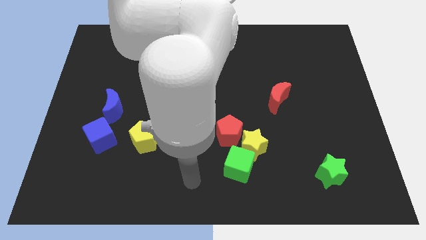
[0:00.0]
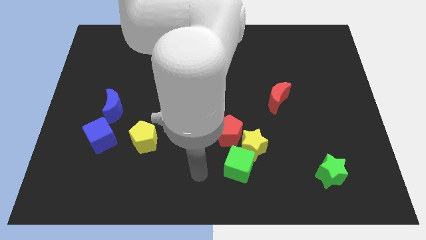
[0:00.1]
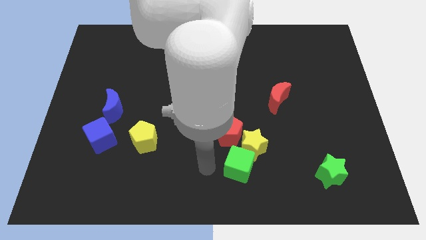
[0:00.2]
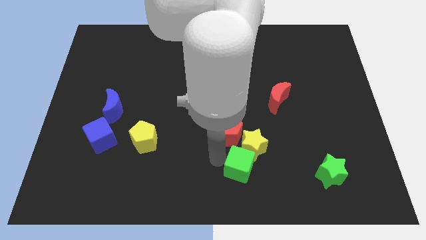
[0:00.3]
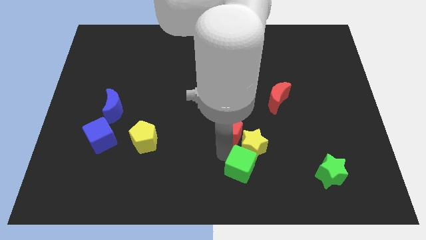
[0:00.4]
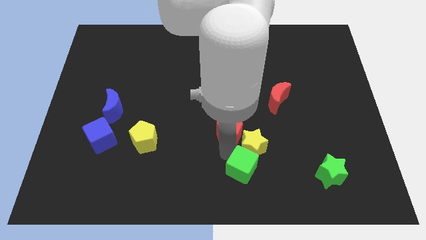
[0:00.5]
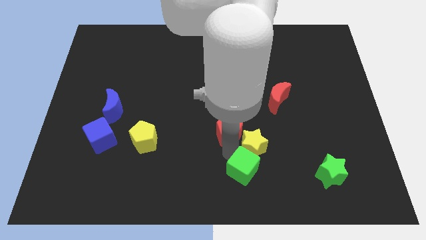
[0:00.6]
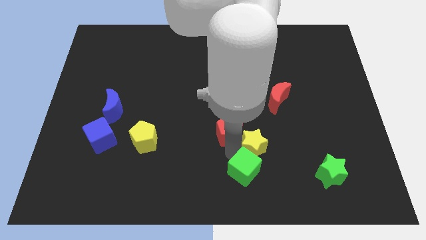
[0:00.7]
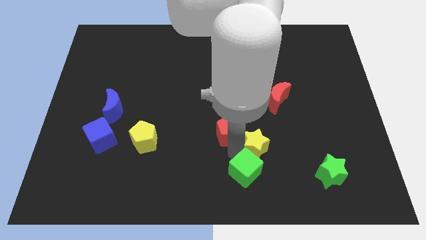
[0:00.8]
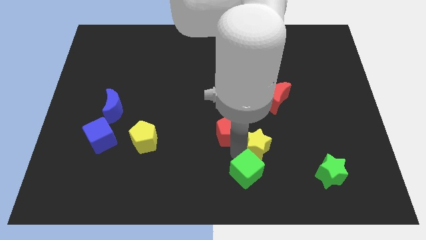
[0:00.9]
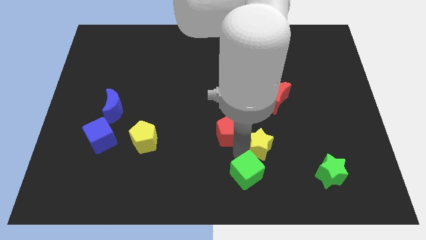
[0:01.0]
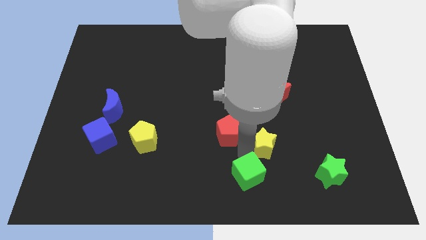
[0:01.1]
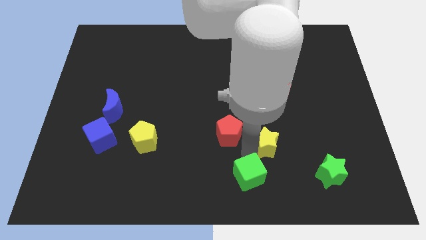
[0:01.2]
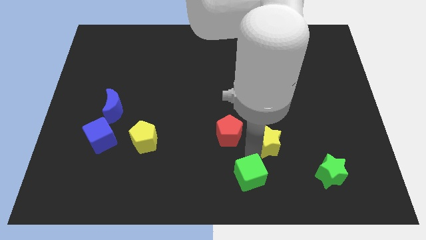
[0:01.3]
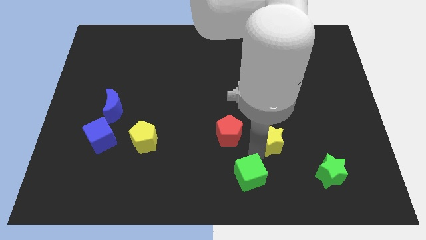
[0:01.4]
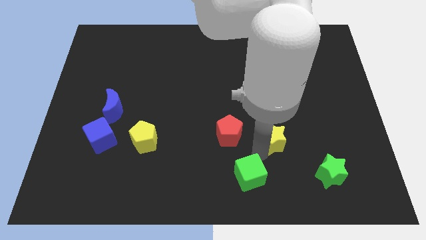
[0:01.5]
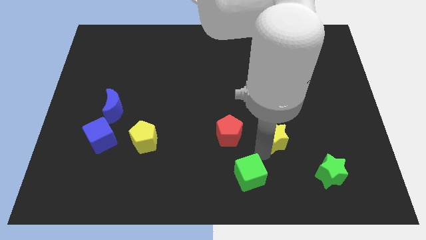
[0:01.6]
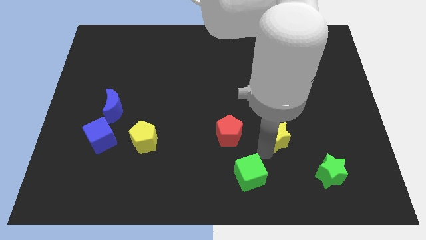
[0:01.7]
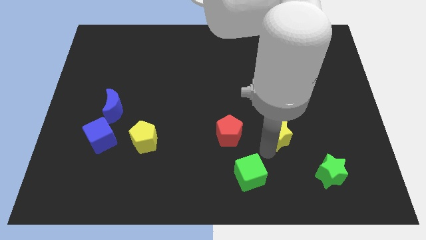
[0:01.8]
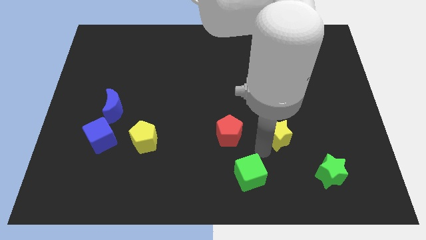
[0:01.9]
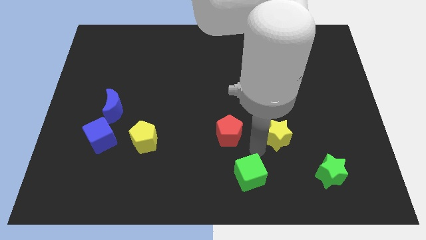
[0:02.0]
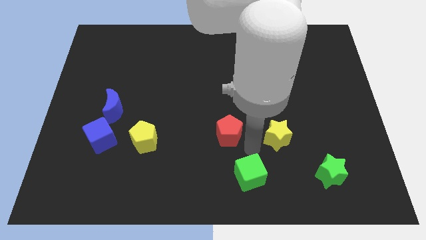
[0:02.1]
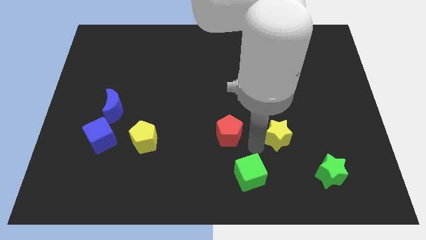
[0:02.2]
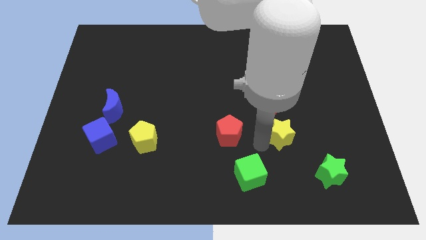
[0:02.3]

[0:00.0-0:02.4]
separate the yellow star from the green cube and red pentagon

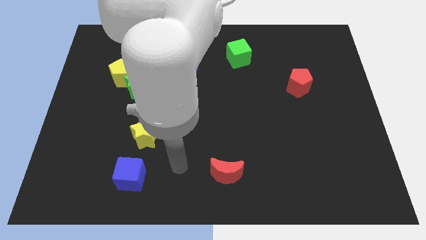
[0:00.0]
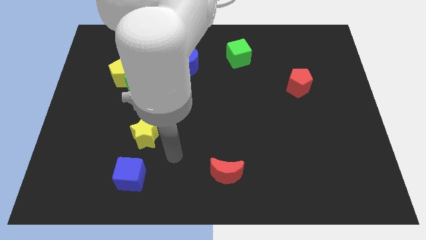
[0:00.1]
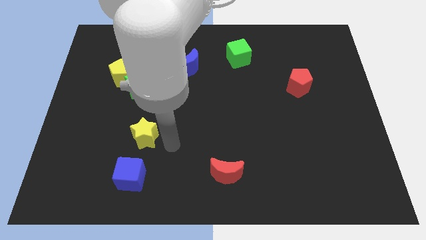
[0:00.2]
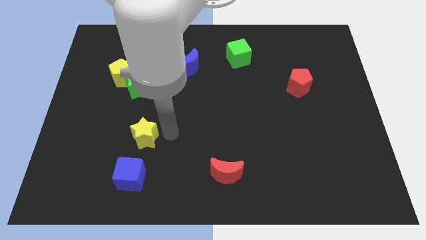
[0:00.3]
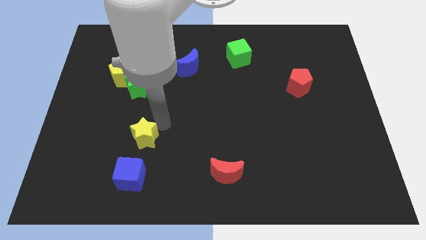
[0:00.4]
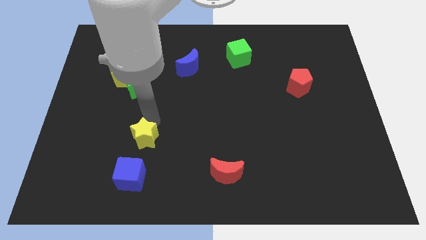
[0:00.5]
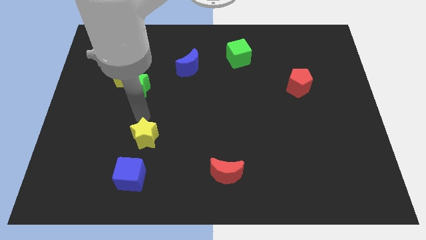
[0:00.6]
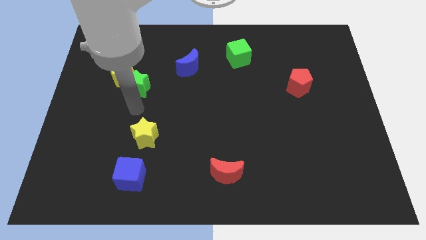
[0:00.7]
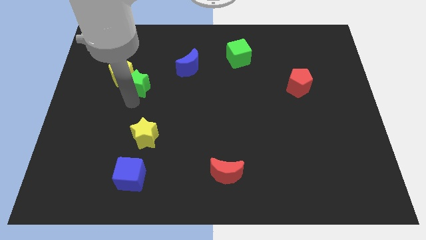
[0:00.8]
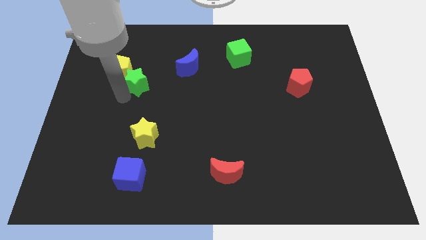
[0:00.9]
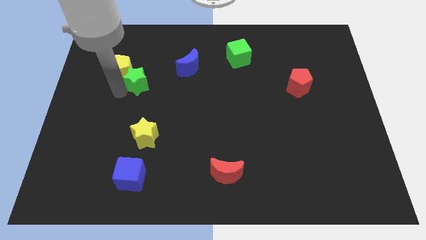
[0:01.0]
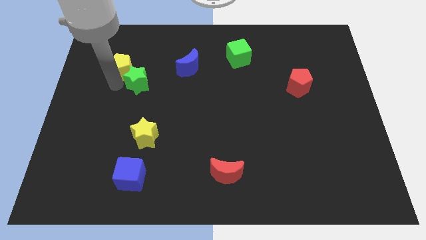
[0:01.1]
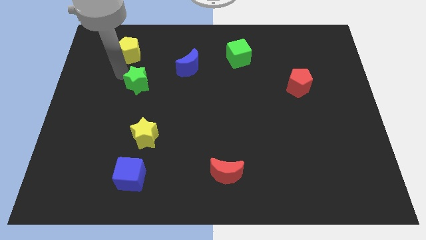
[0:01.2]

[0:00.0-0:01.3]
separate the green star from the yellow pentagon

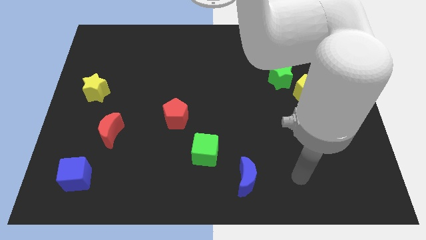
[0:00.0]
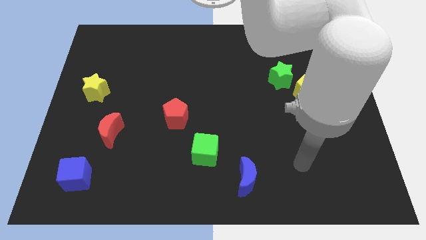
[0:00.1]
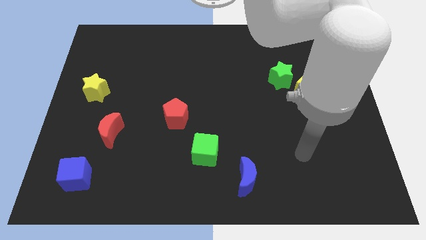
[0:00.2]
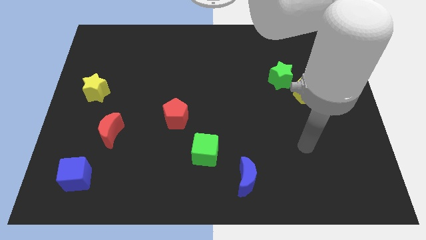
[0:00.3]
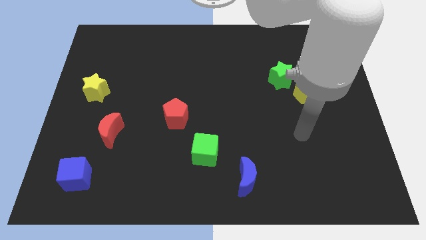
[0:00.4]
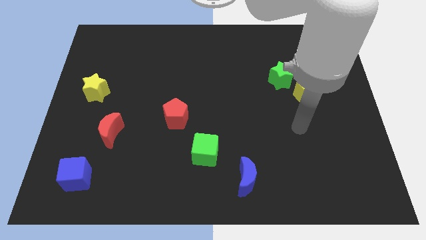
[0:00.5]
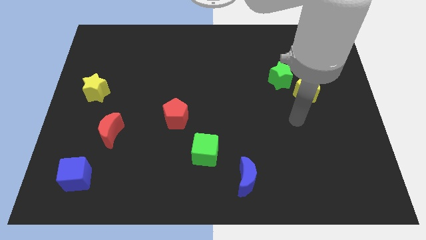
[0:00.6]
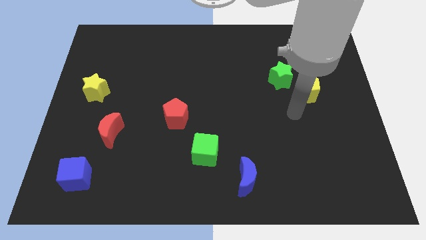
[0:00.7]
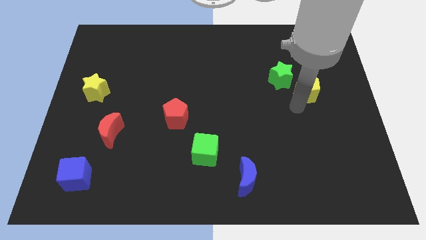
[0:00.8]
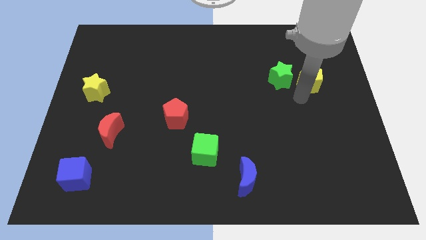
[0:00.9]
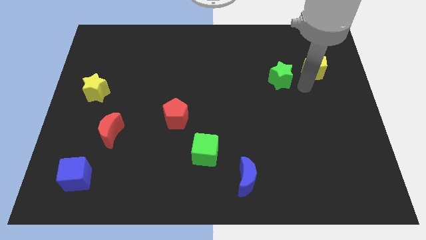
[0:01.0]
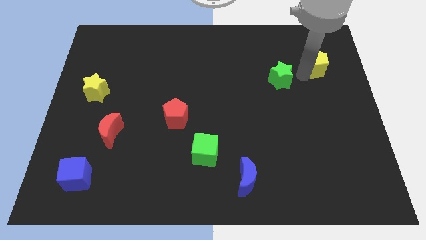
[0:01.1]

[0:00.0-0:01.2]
pull the green star apart from the yellow pentagon

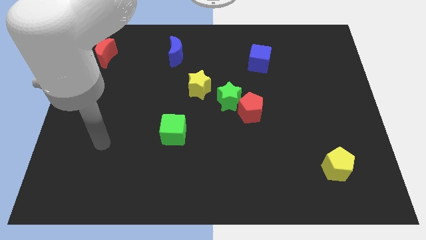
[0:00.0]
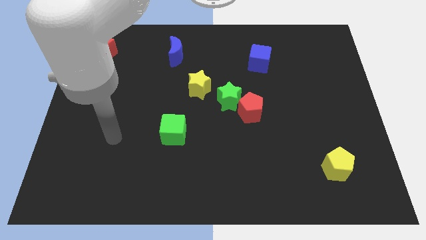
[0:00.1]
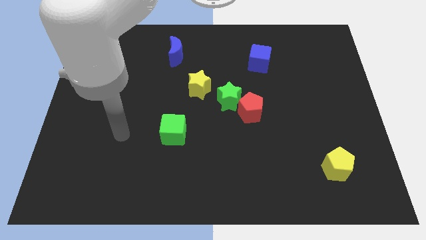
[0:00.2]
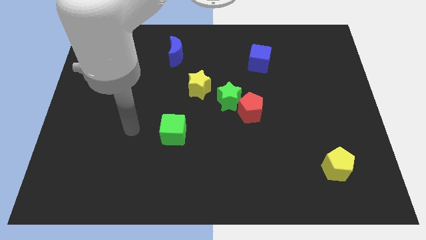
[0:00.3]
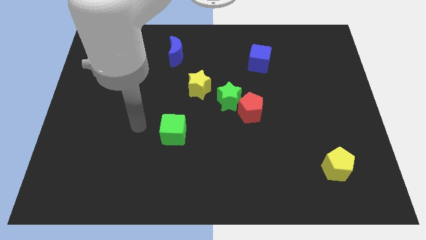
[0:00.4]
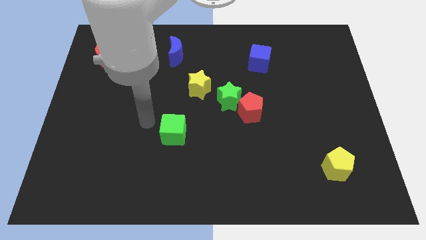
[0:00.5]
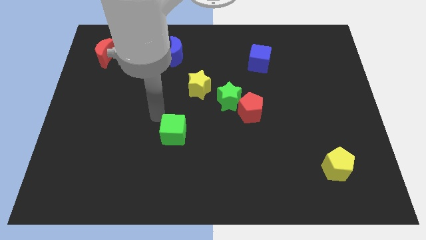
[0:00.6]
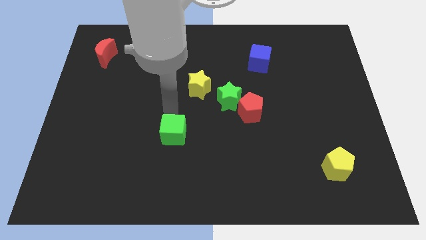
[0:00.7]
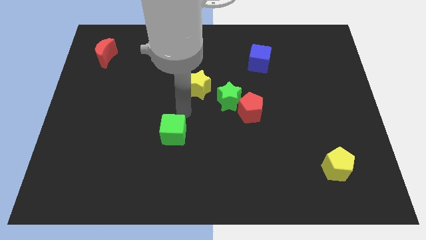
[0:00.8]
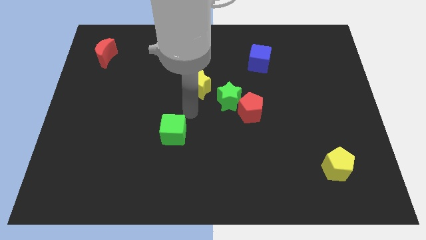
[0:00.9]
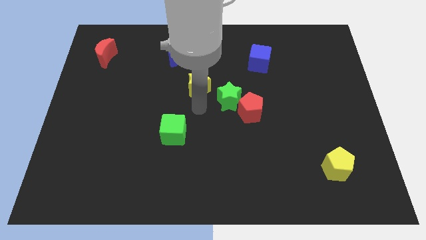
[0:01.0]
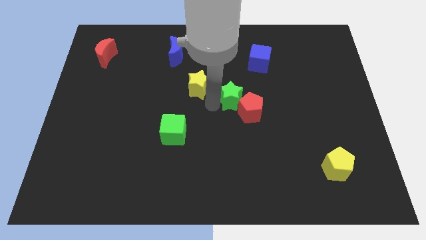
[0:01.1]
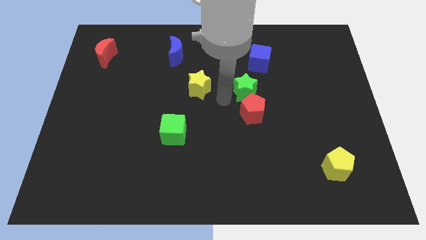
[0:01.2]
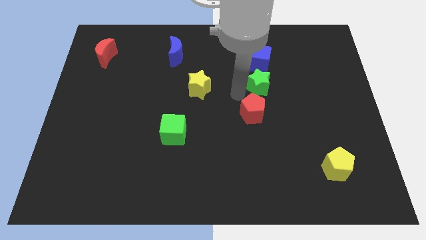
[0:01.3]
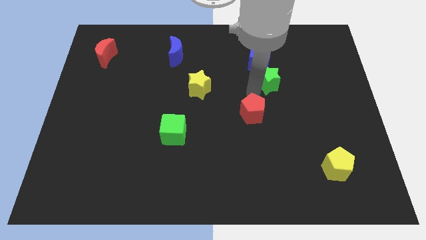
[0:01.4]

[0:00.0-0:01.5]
pull the red pentagon apart from the green star

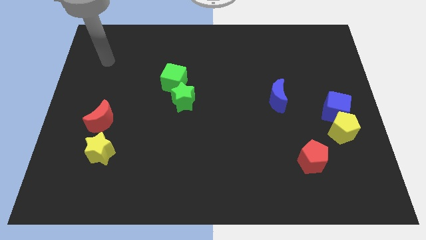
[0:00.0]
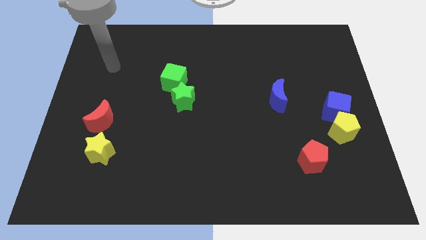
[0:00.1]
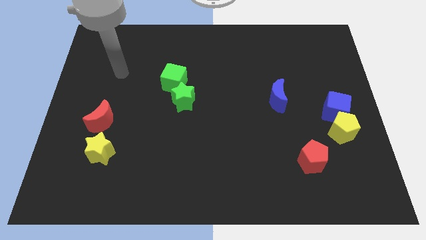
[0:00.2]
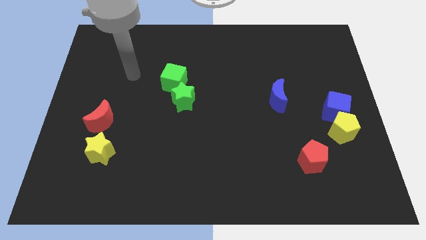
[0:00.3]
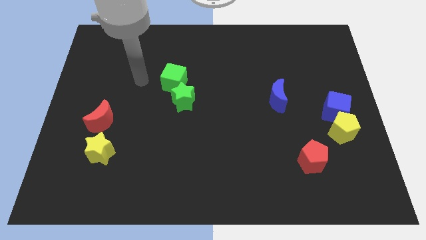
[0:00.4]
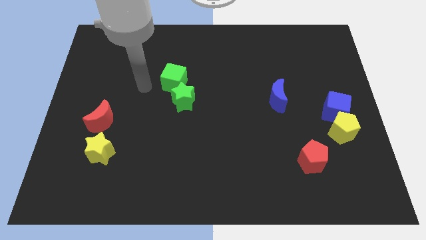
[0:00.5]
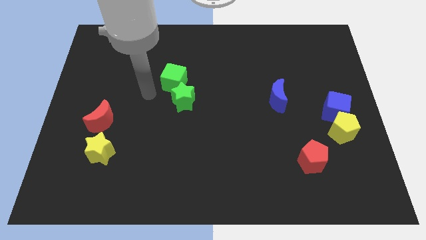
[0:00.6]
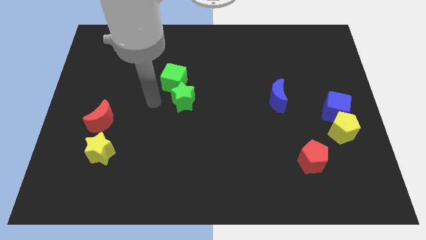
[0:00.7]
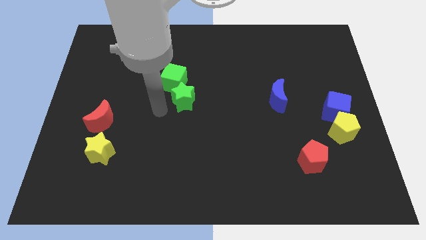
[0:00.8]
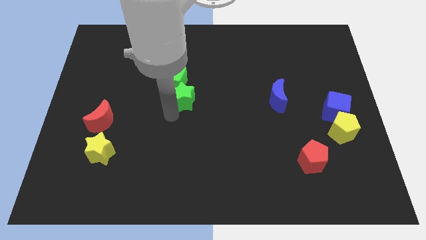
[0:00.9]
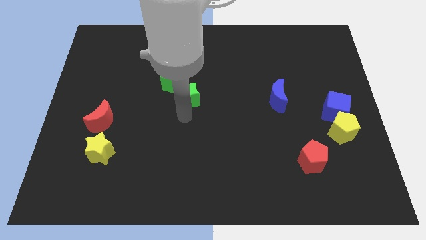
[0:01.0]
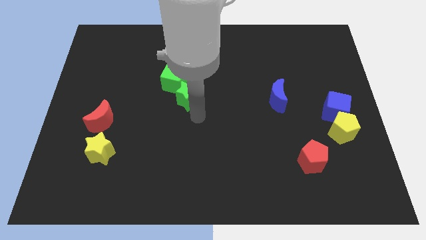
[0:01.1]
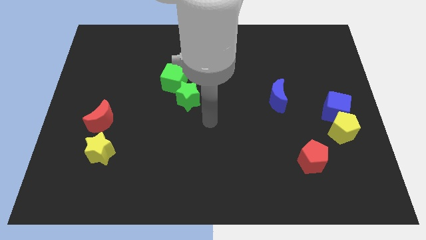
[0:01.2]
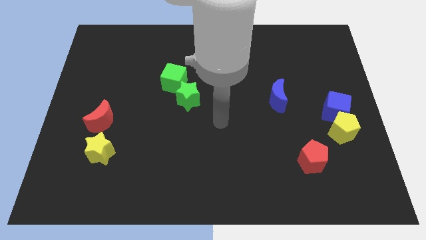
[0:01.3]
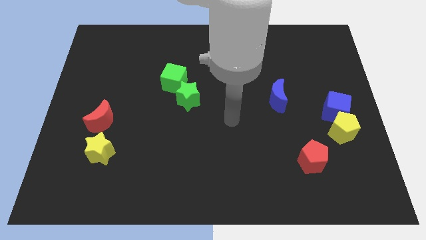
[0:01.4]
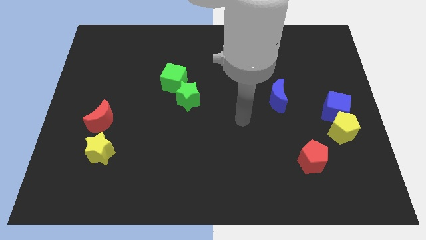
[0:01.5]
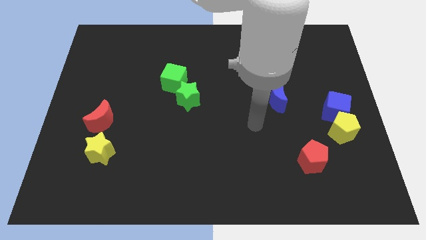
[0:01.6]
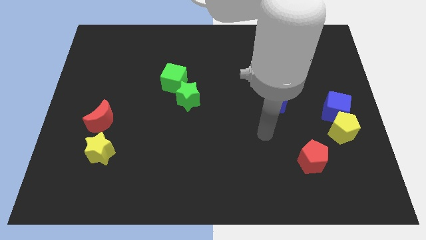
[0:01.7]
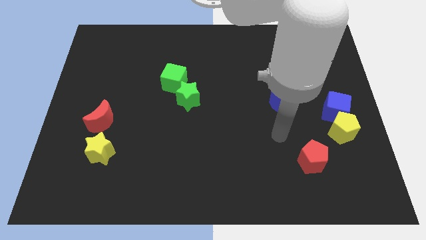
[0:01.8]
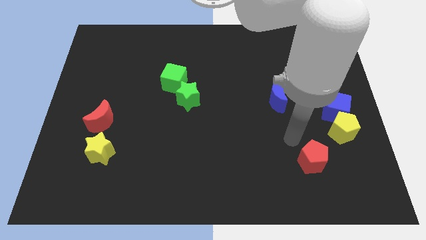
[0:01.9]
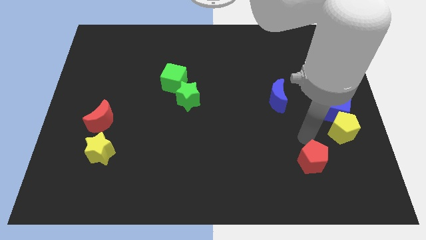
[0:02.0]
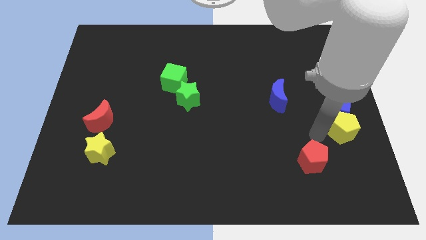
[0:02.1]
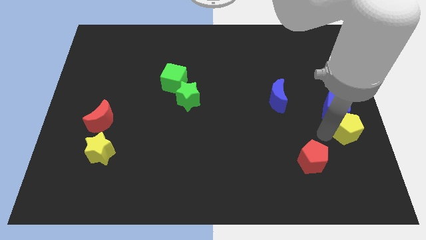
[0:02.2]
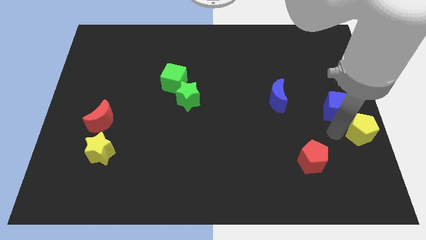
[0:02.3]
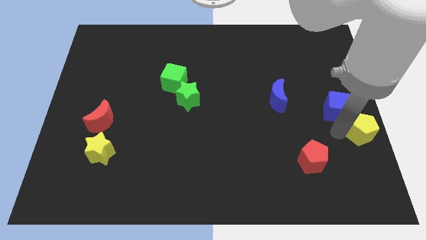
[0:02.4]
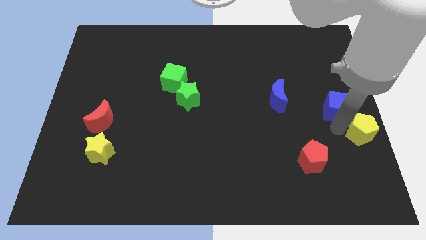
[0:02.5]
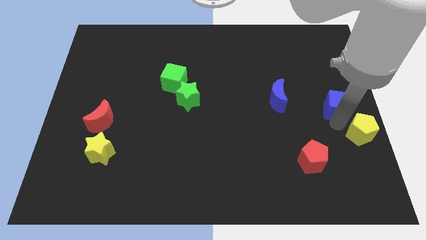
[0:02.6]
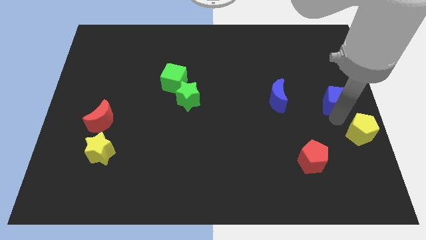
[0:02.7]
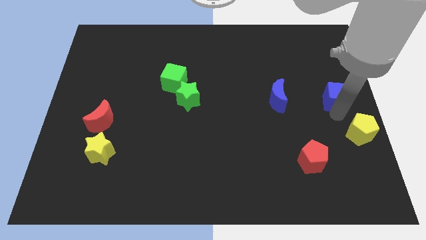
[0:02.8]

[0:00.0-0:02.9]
move the blue cube away from the yellow pentagon
